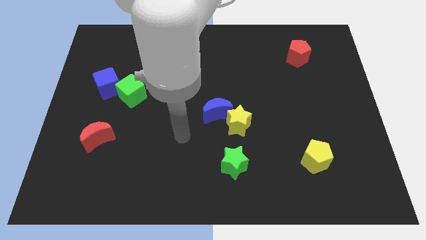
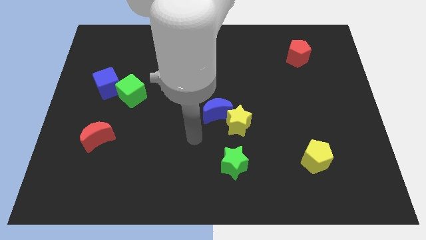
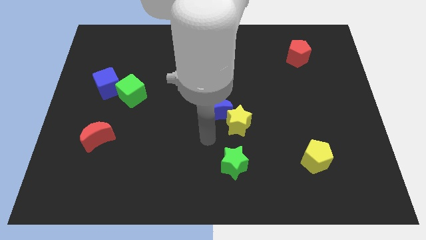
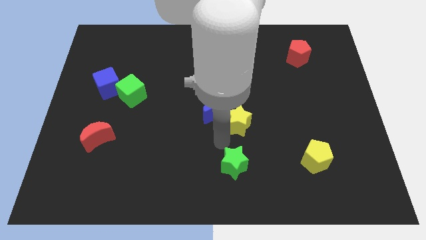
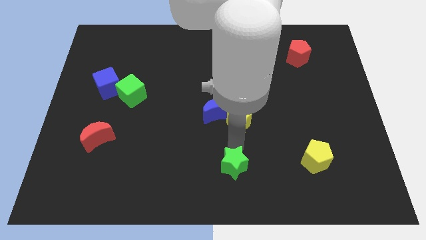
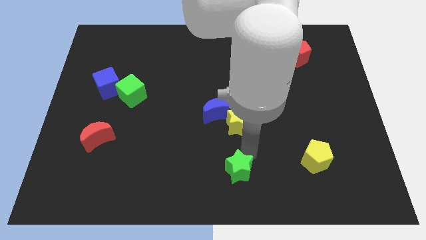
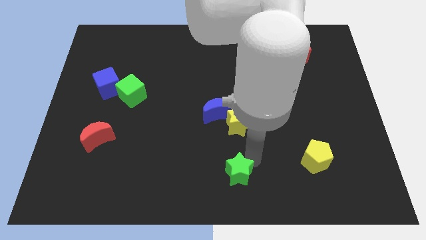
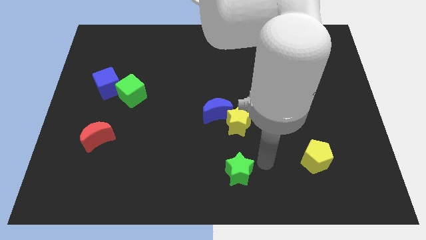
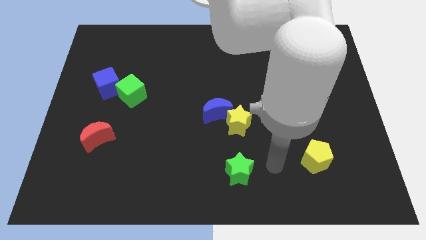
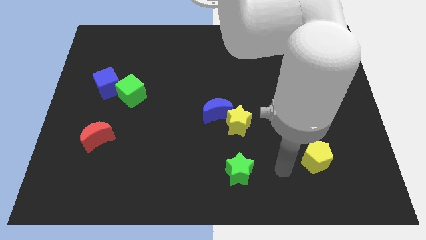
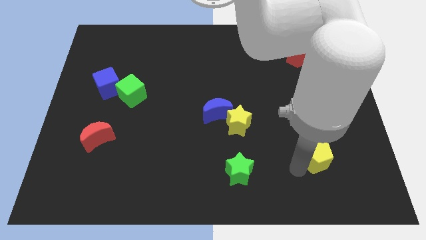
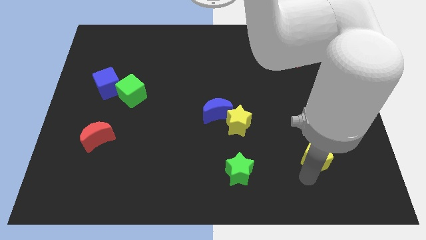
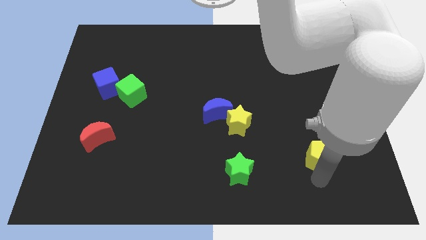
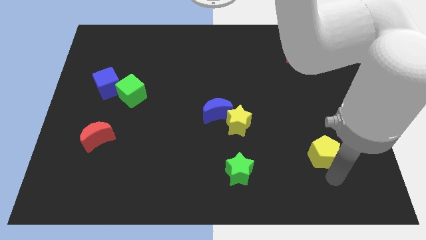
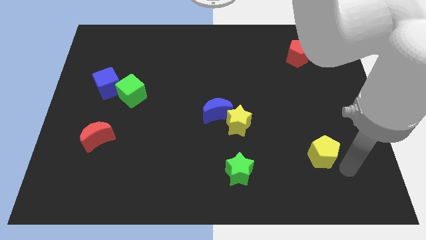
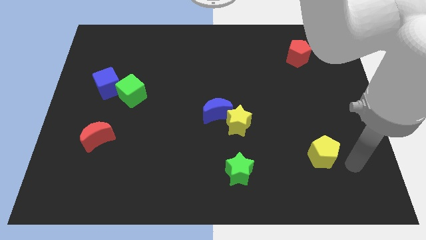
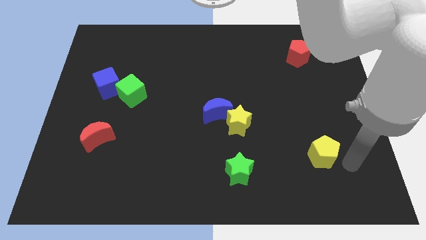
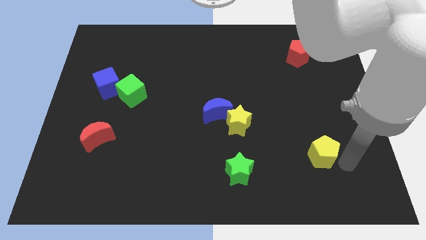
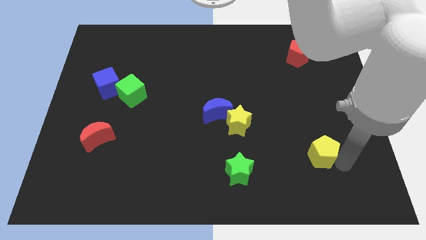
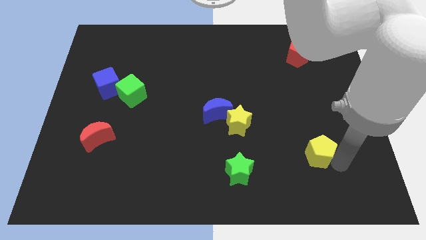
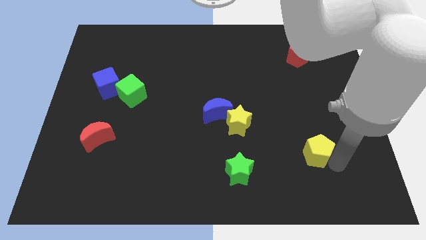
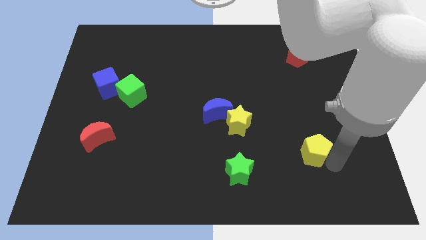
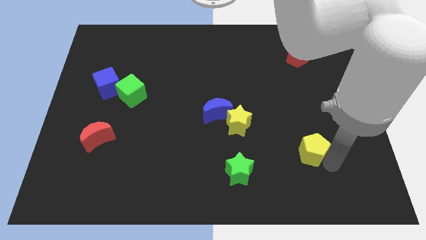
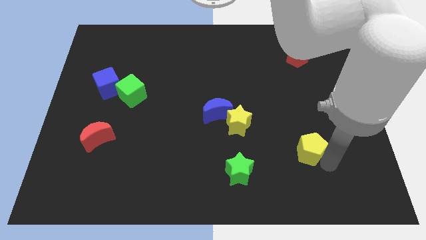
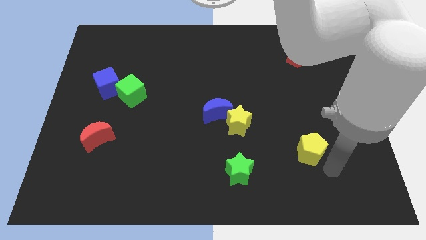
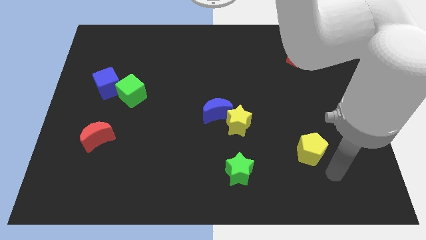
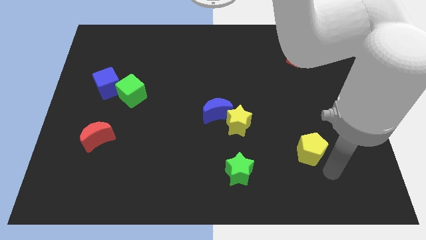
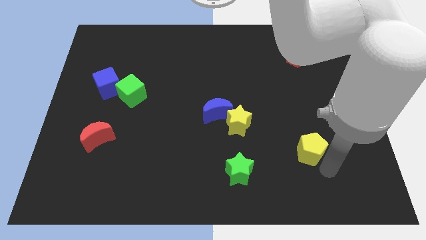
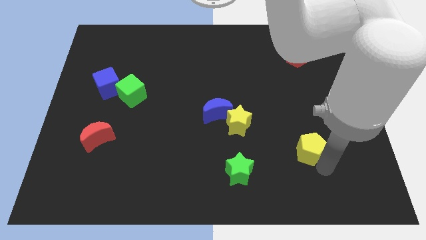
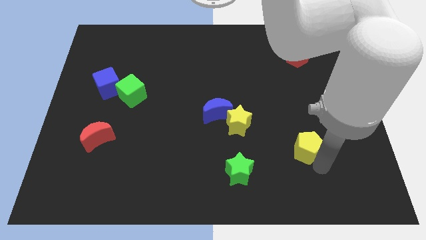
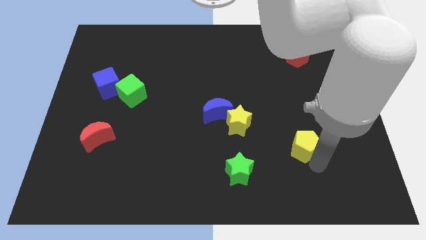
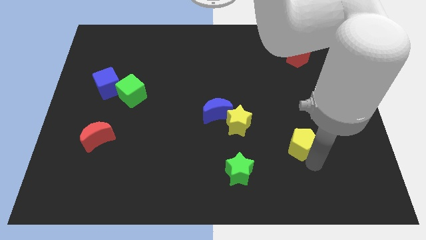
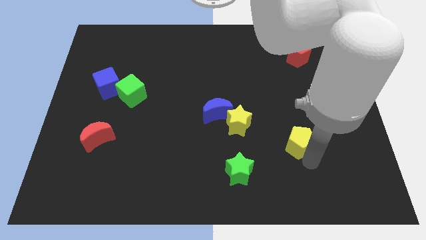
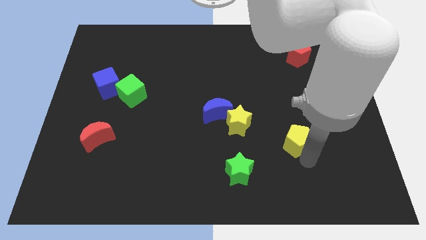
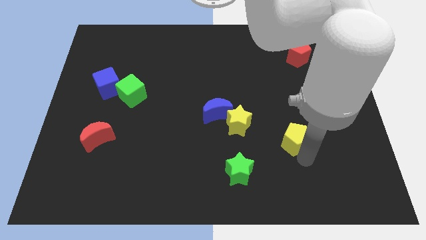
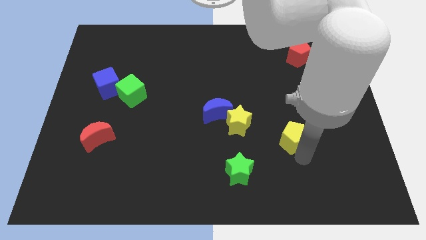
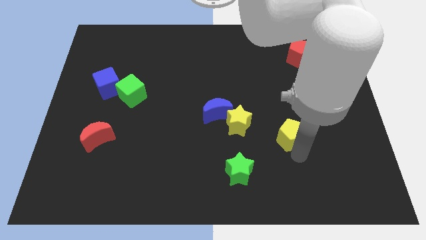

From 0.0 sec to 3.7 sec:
slide the yellow pentagon diagonally upwards and to the left a little

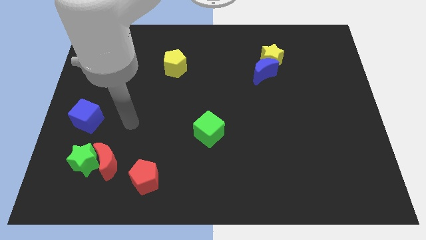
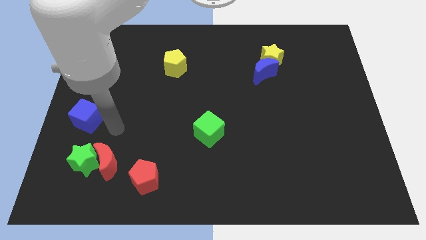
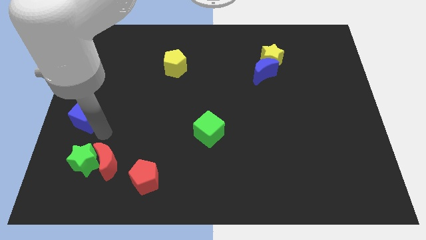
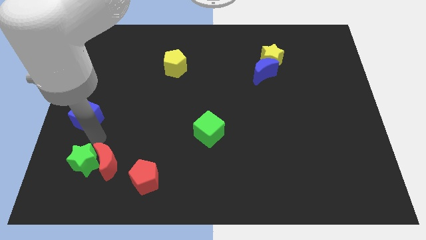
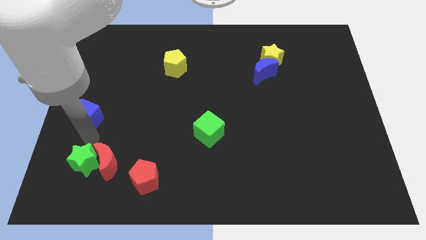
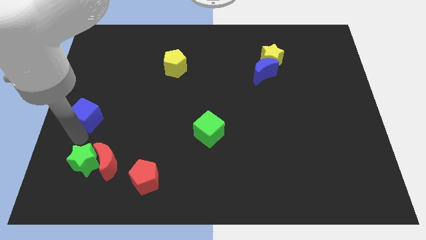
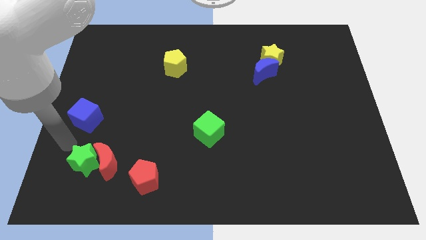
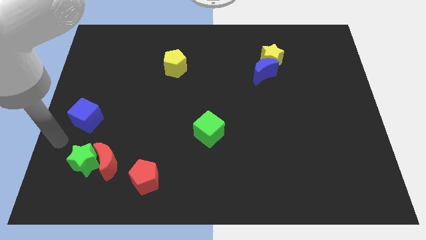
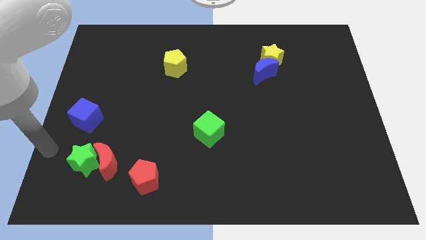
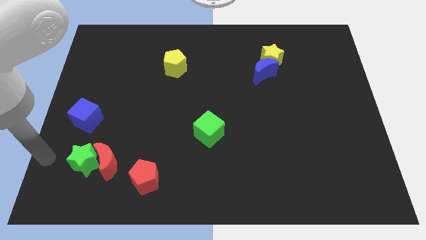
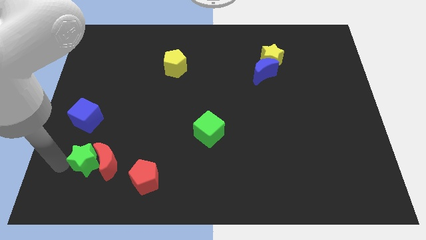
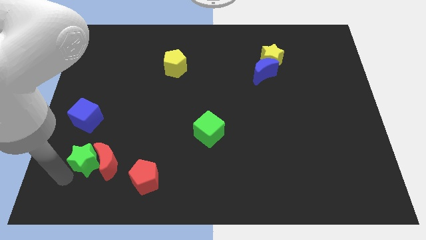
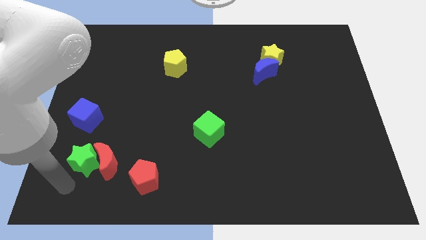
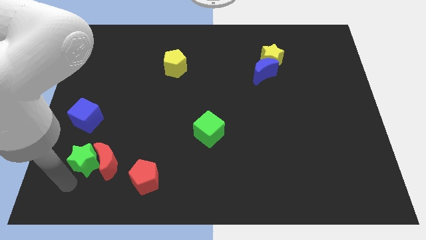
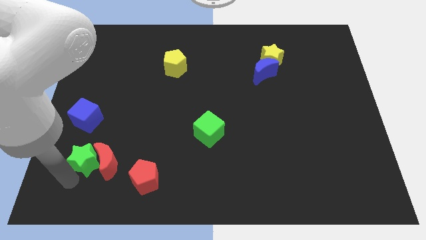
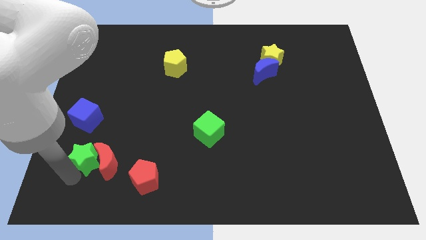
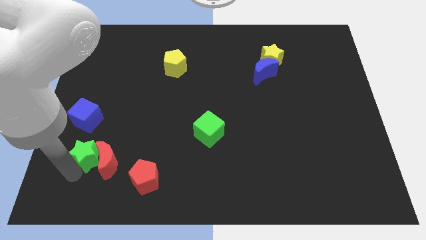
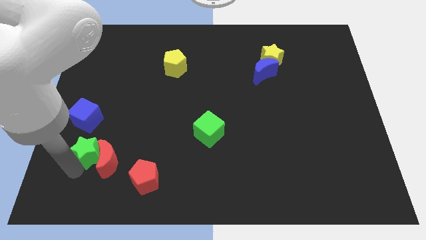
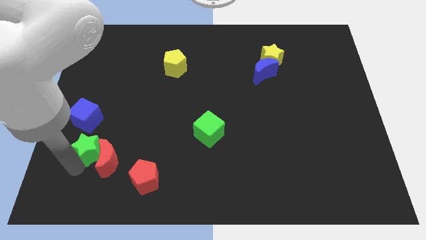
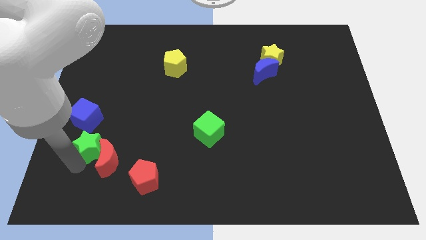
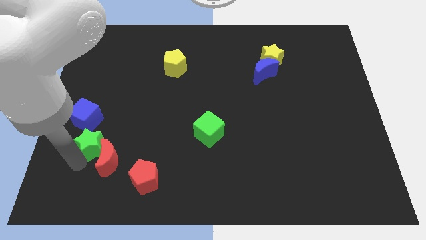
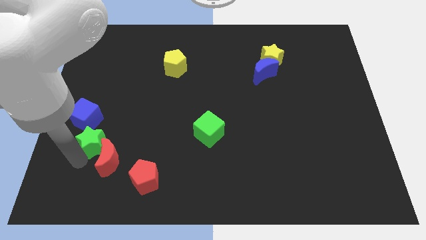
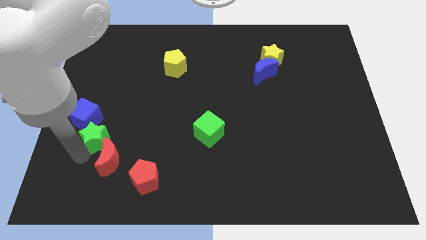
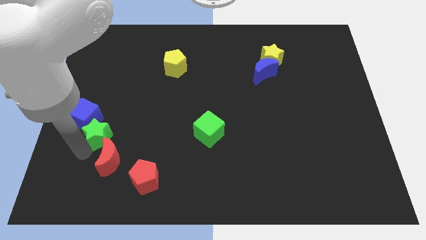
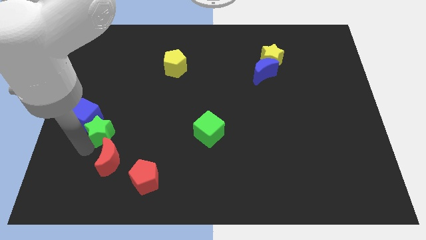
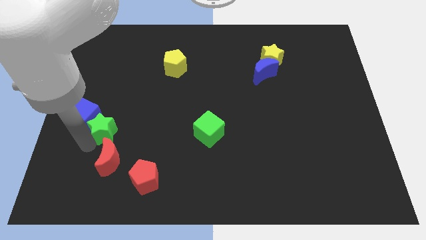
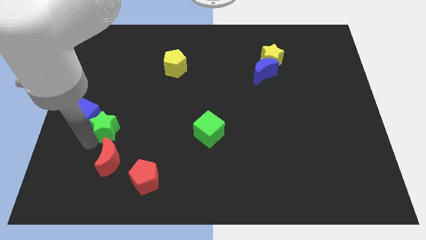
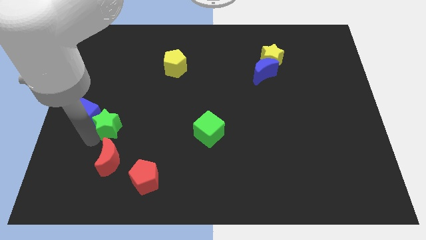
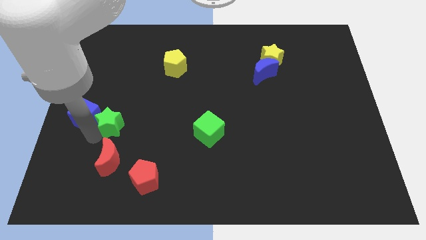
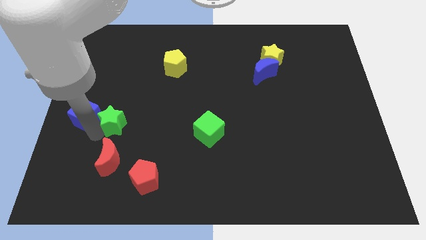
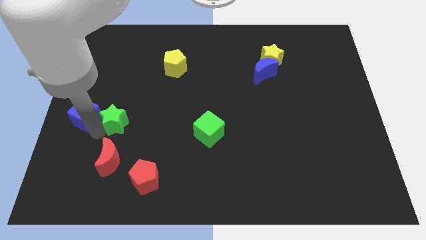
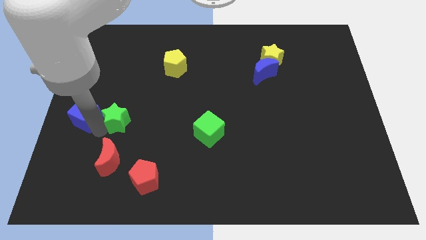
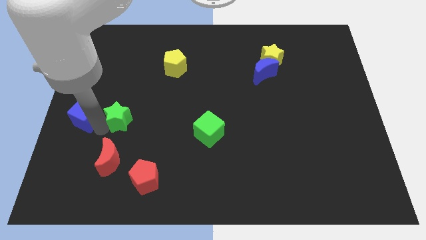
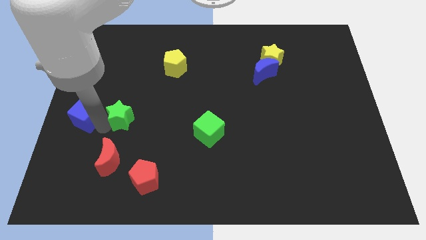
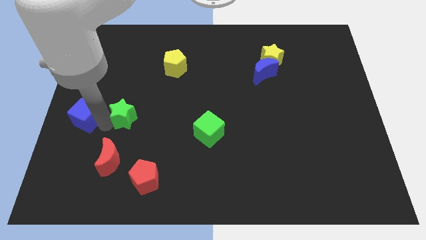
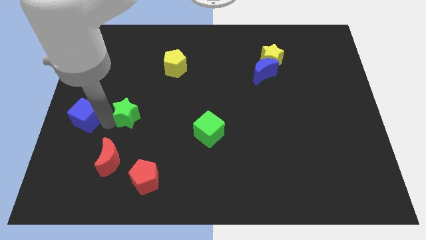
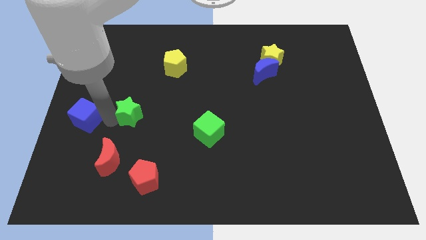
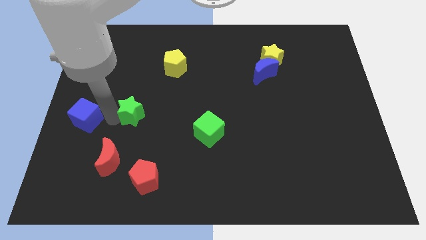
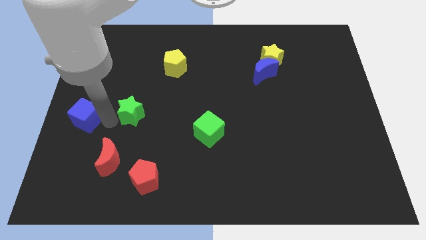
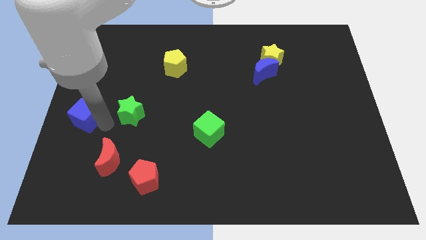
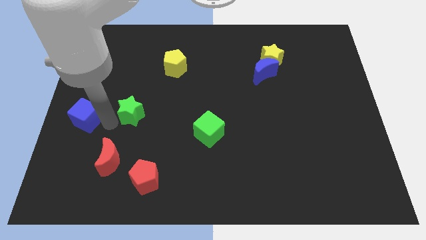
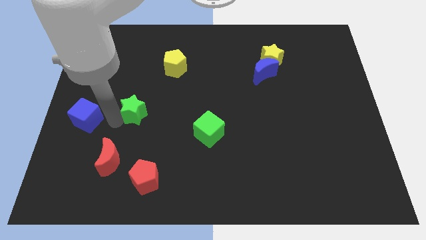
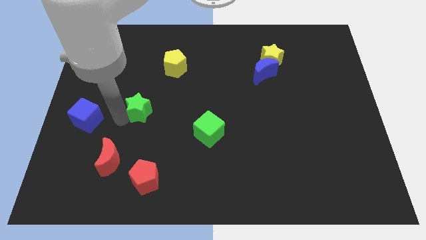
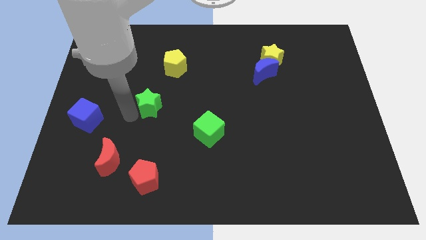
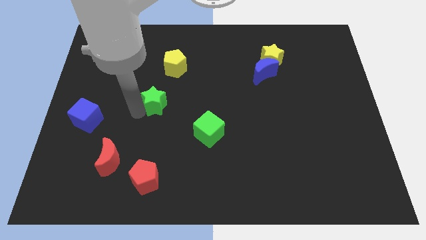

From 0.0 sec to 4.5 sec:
push the green star diagonally up and to the right
